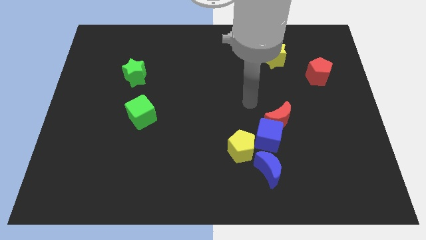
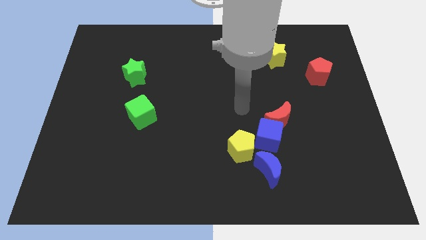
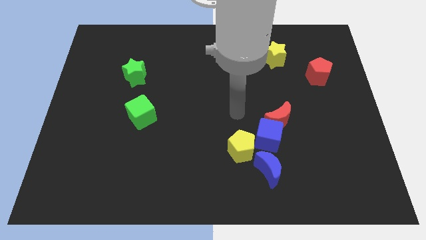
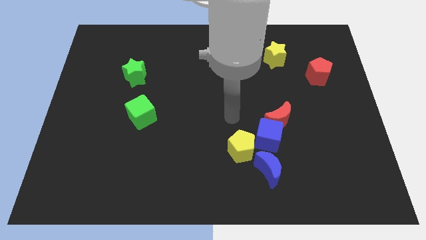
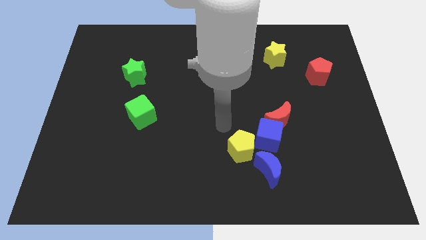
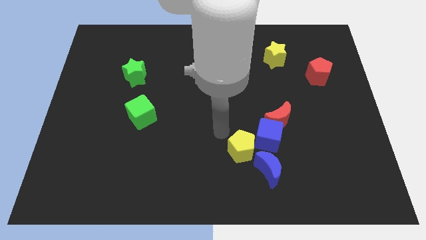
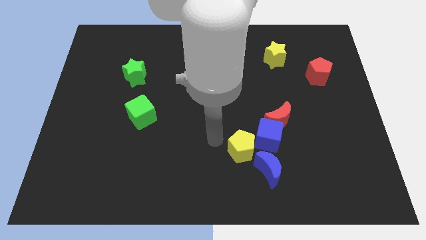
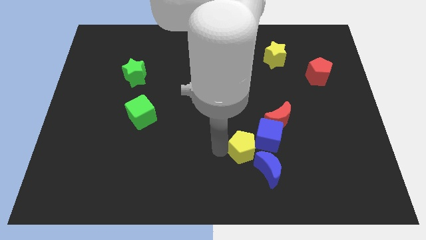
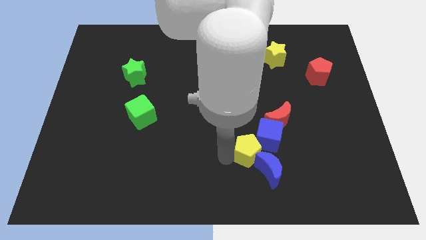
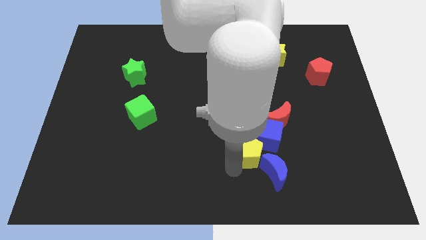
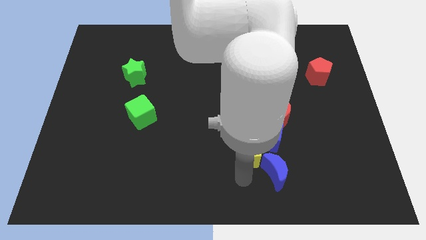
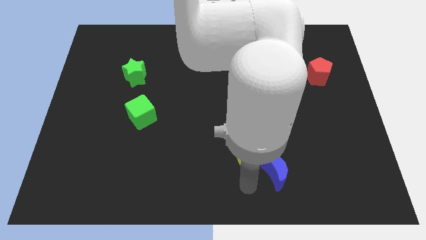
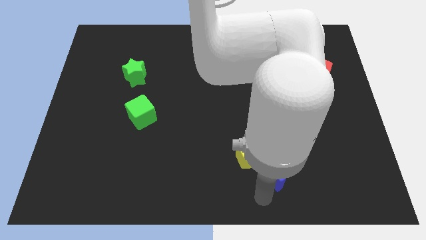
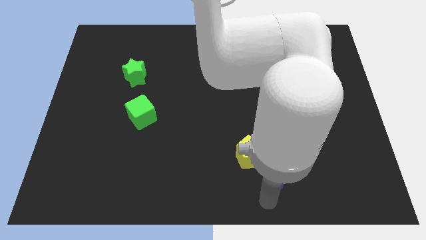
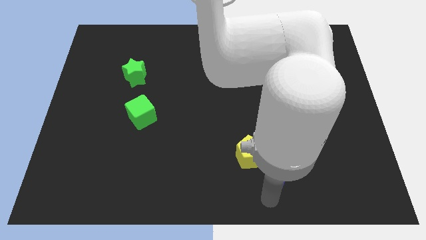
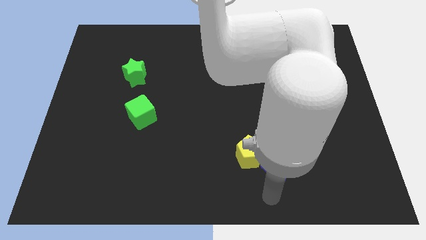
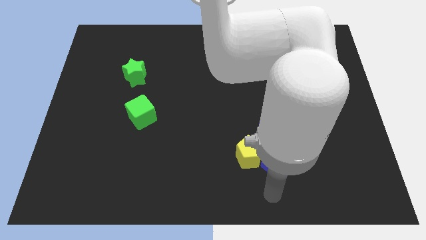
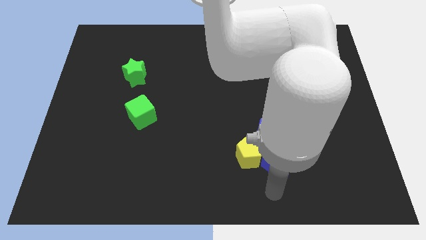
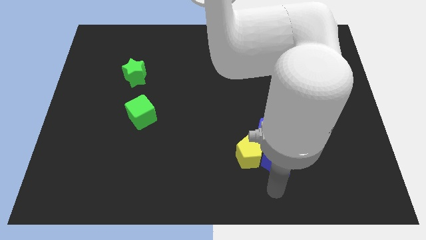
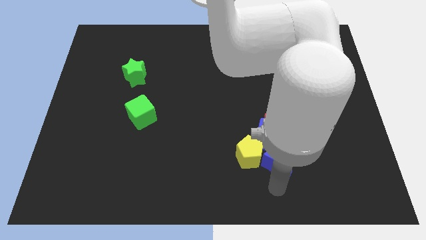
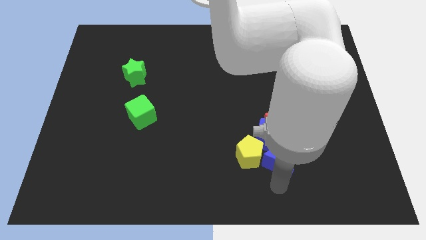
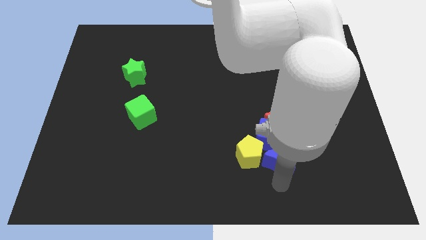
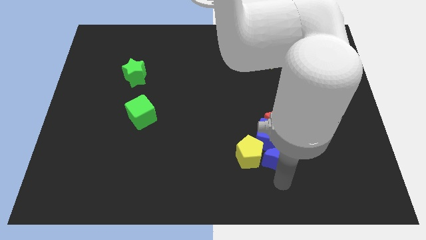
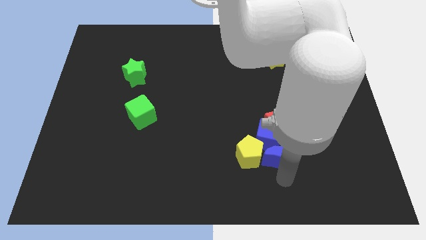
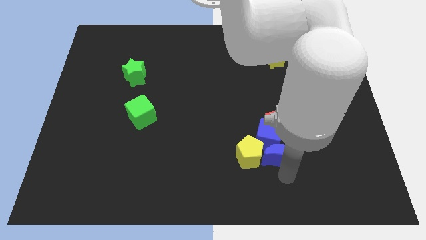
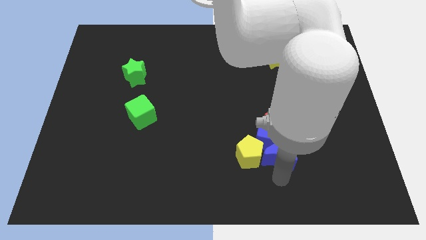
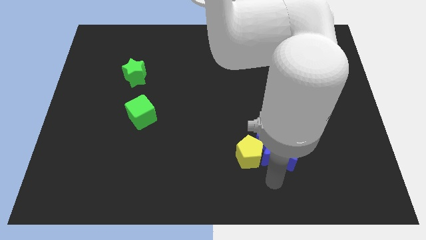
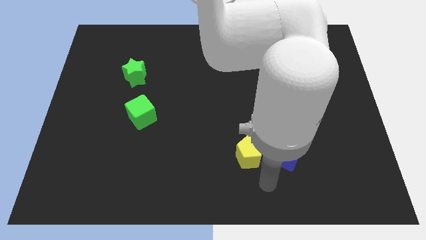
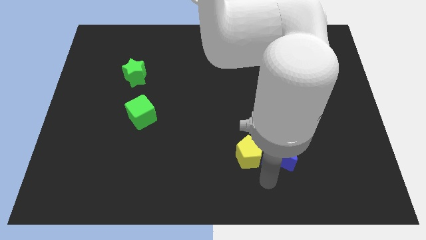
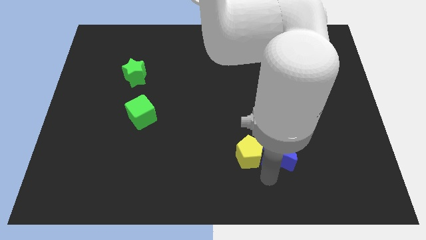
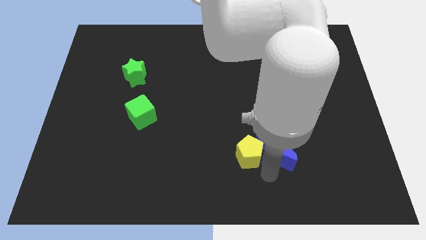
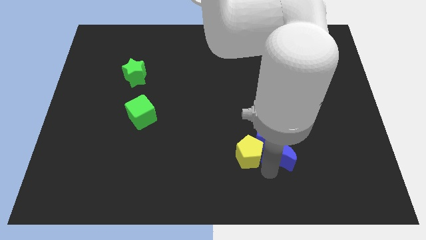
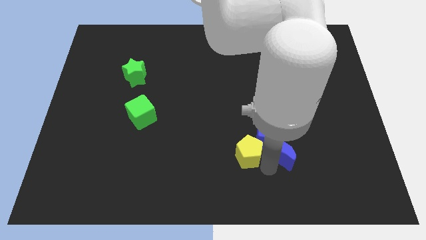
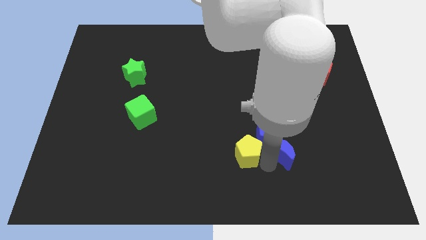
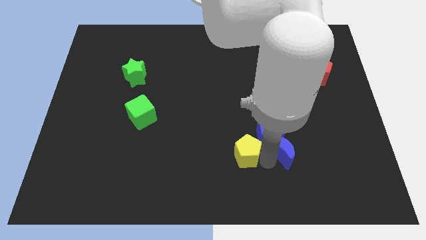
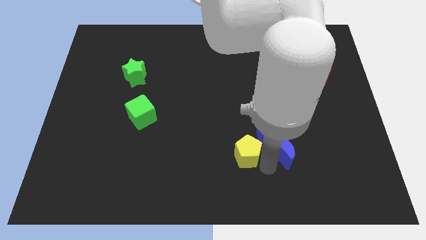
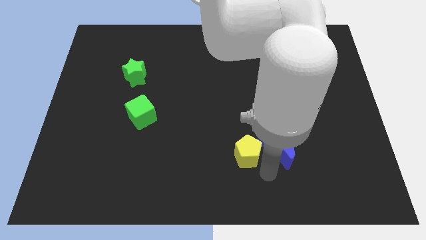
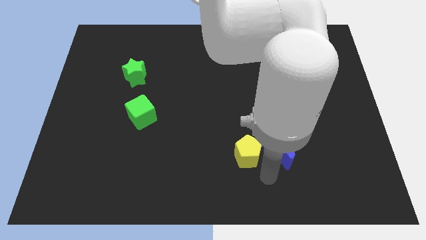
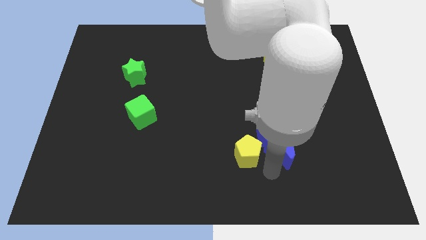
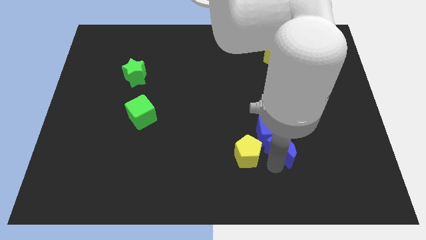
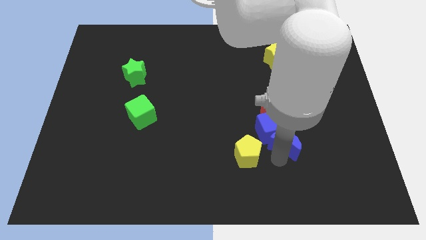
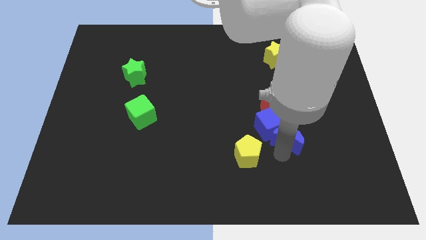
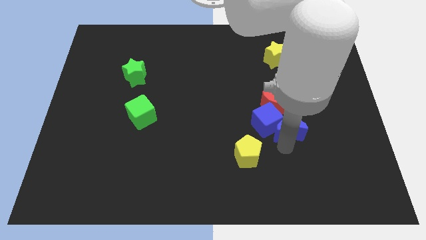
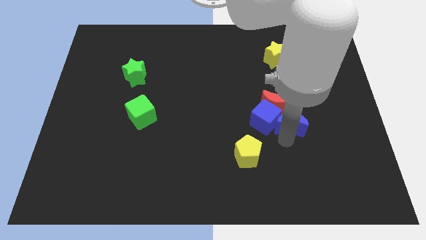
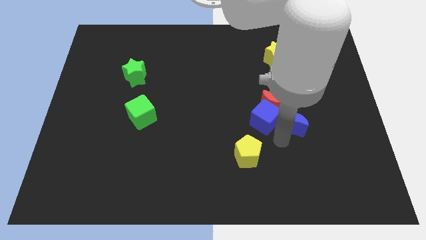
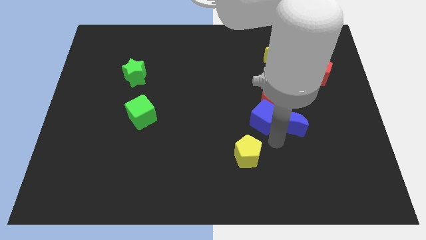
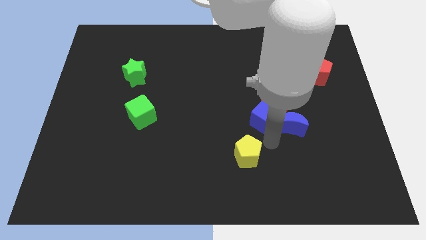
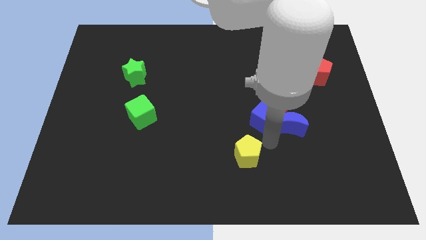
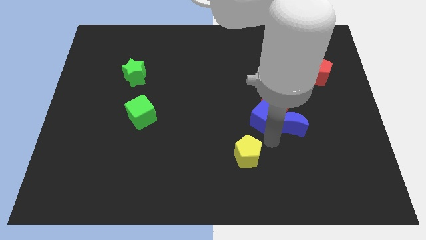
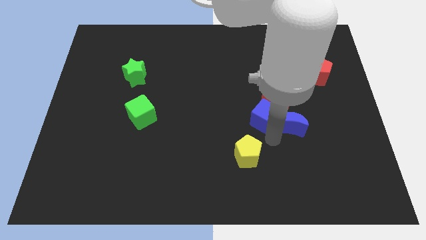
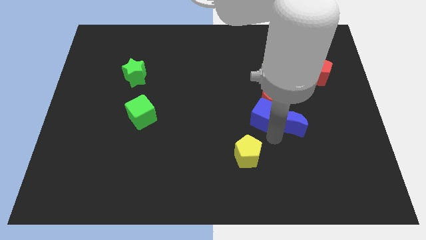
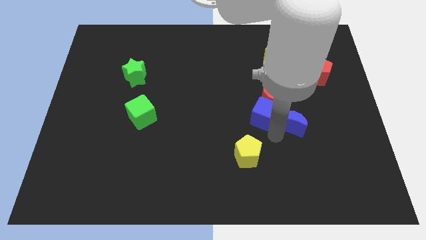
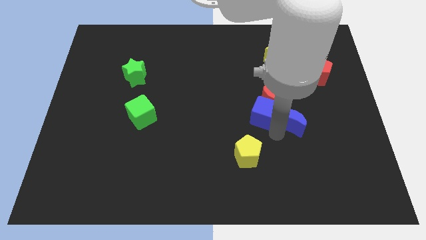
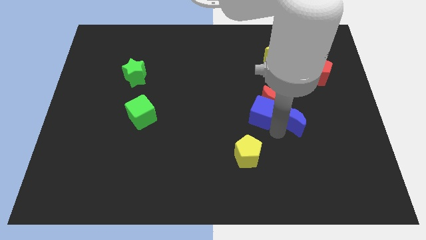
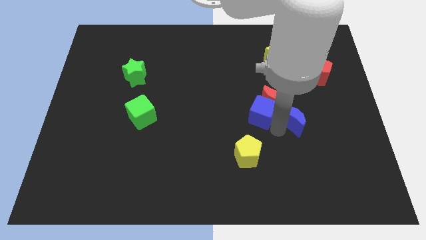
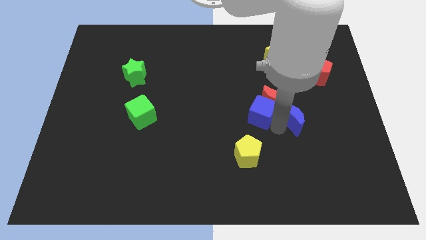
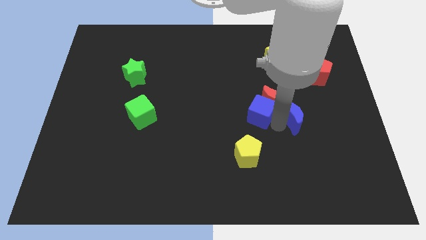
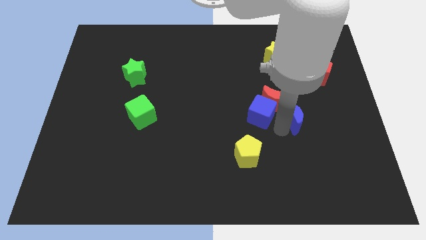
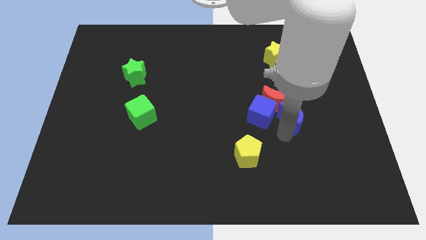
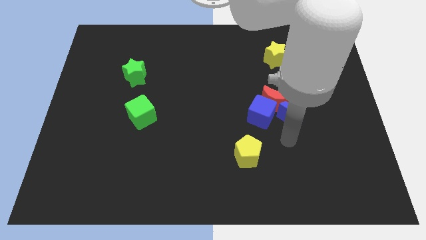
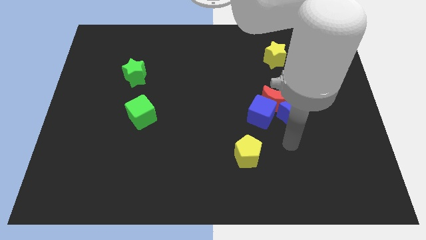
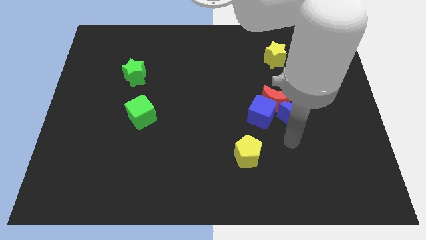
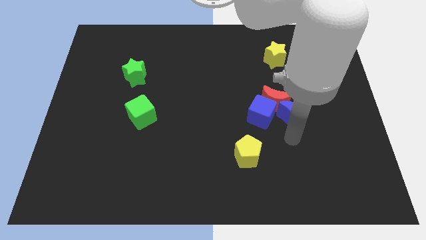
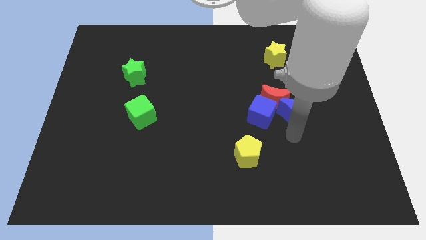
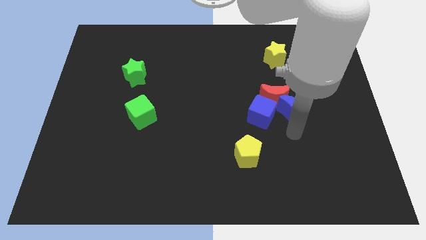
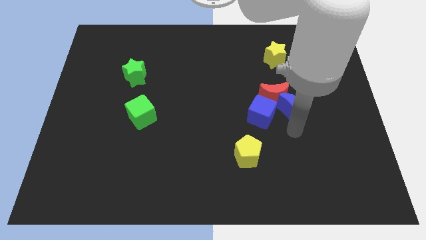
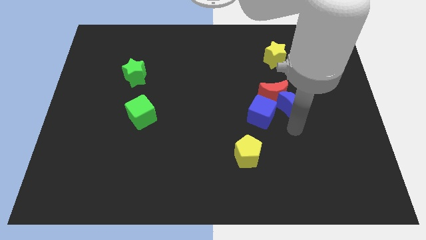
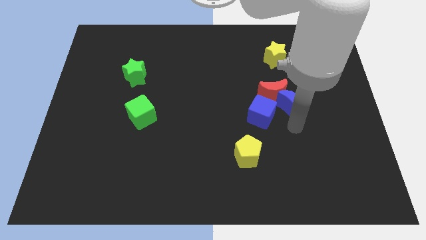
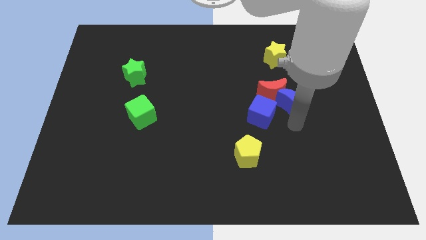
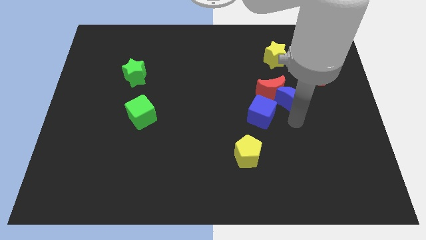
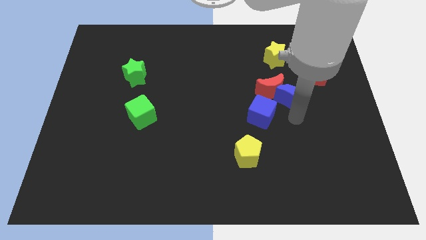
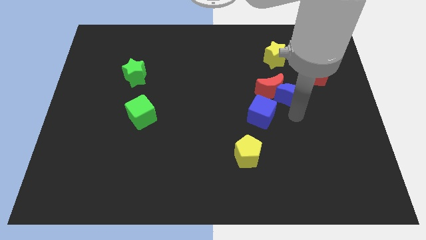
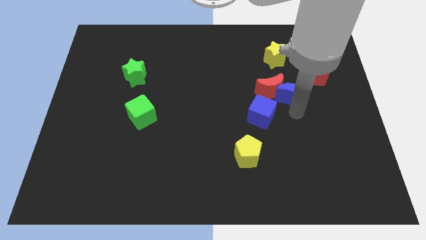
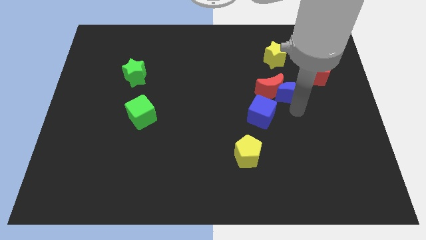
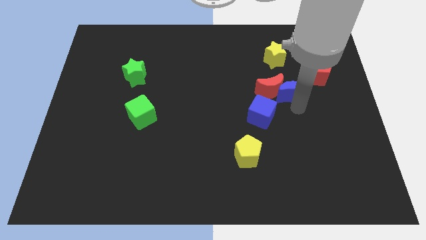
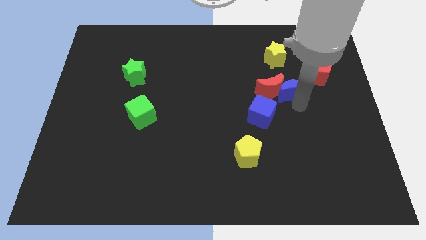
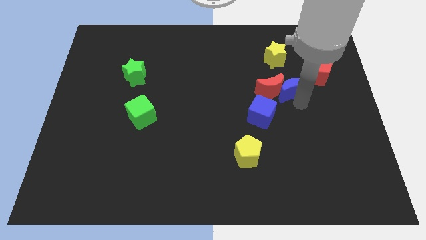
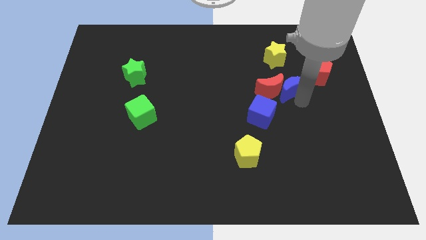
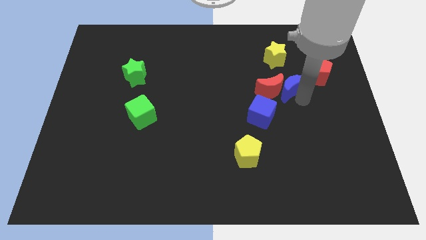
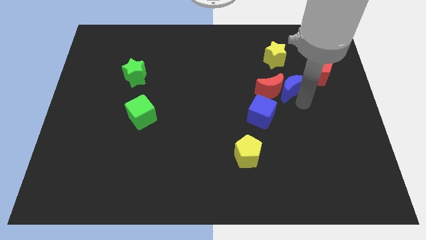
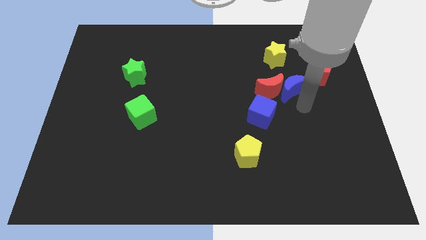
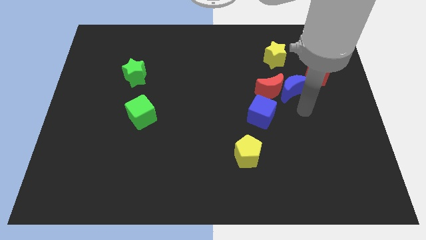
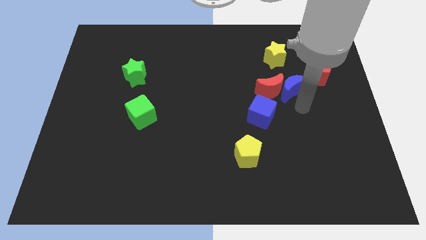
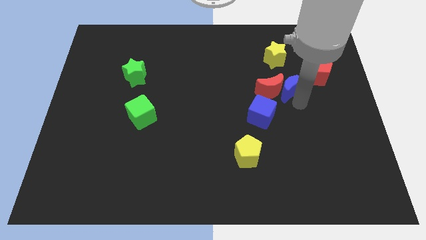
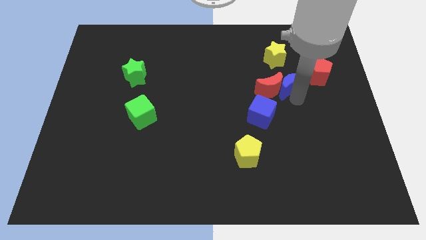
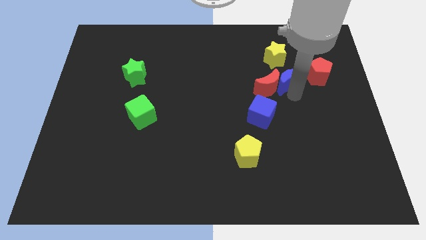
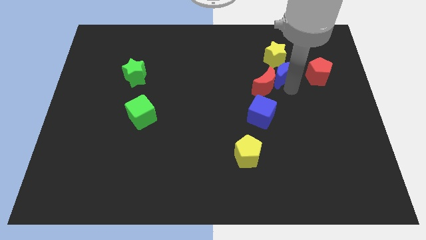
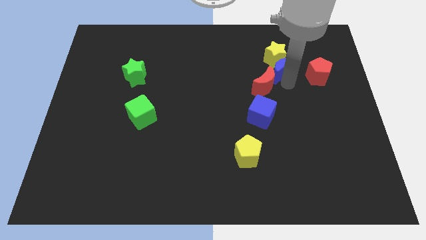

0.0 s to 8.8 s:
slide the blue moon to the yellow star
